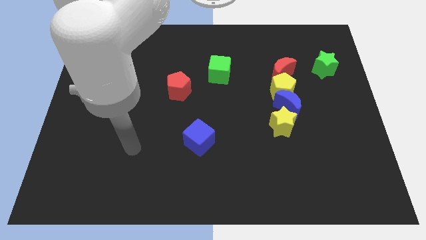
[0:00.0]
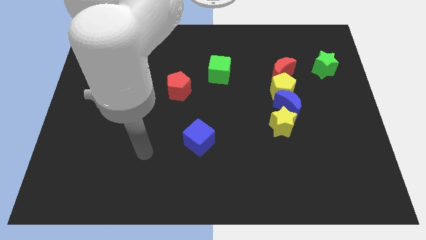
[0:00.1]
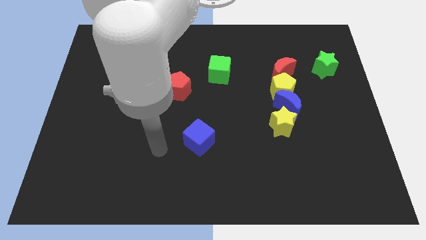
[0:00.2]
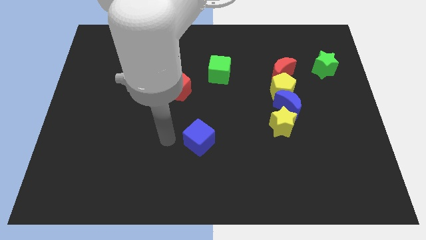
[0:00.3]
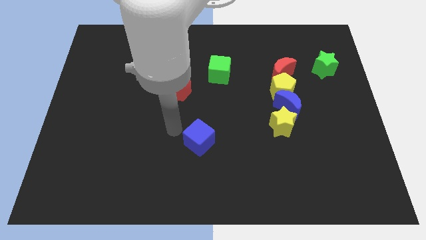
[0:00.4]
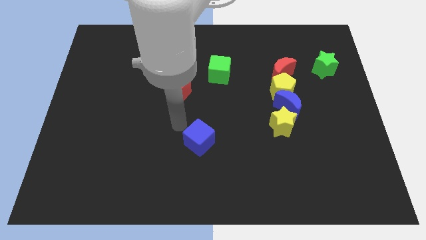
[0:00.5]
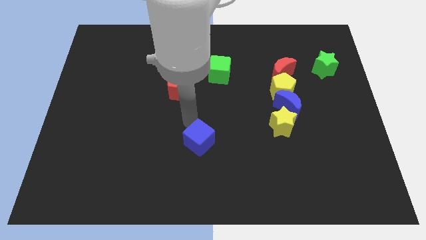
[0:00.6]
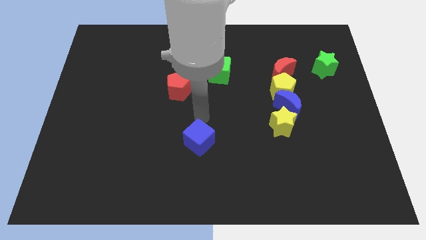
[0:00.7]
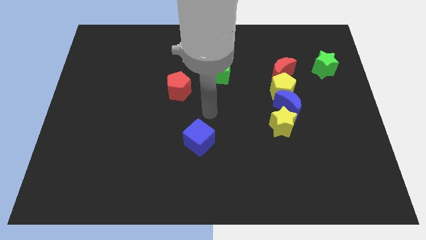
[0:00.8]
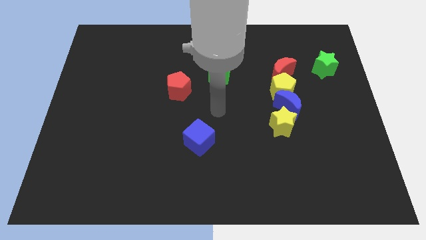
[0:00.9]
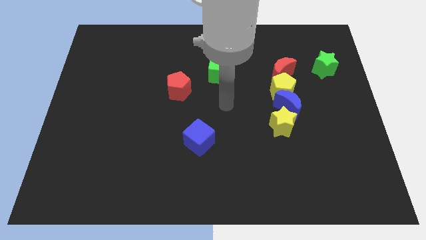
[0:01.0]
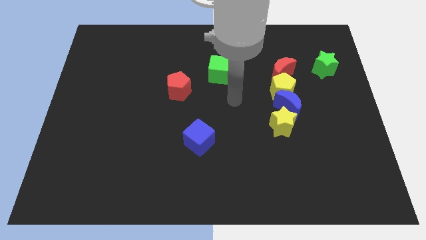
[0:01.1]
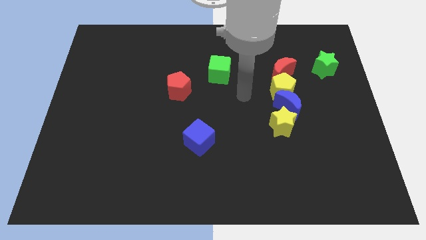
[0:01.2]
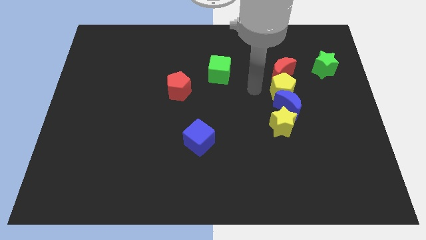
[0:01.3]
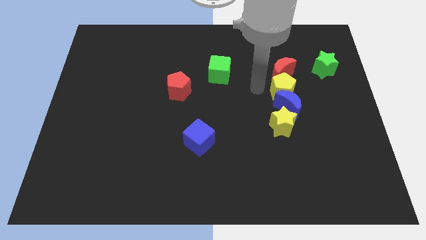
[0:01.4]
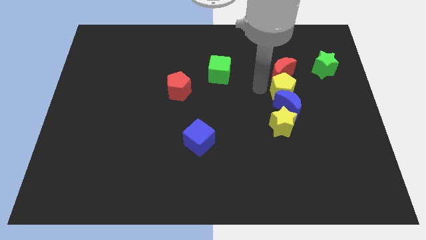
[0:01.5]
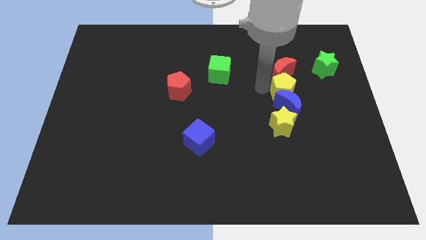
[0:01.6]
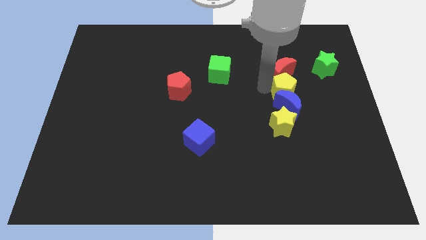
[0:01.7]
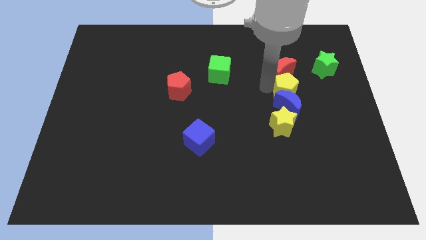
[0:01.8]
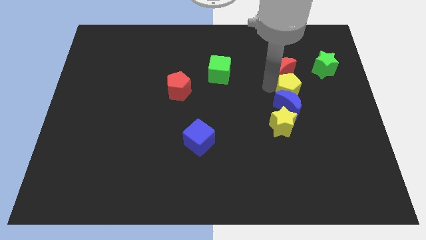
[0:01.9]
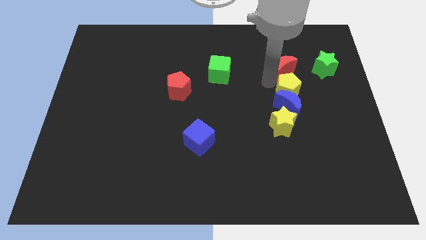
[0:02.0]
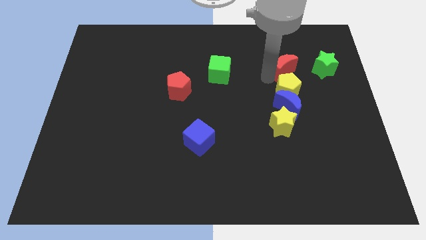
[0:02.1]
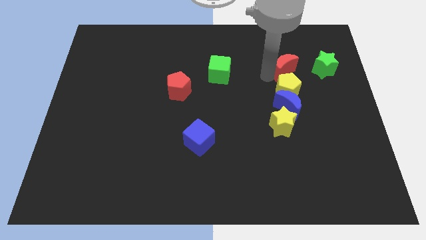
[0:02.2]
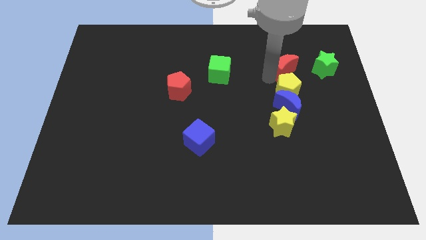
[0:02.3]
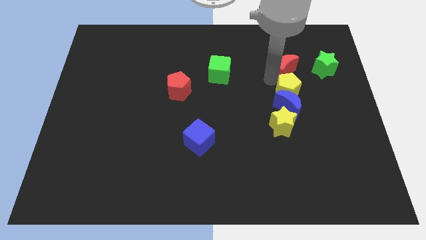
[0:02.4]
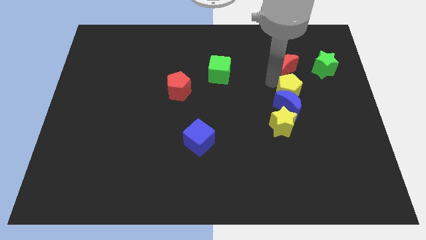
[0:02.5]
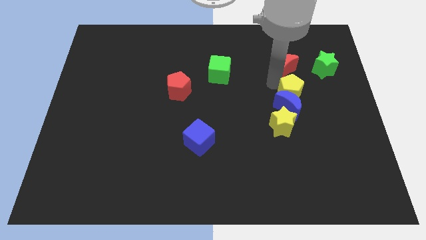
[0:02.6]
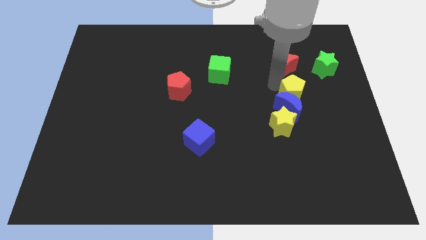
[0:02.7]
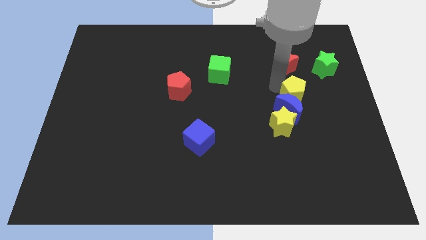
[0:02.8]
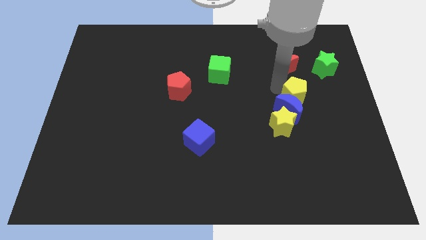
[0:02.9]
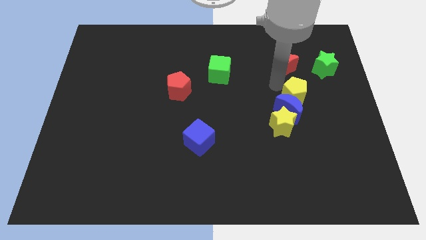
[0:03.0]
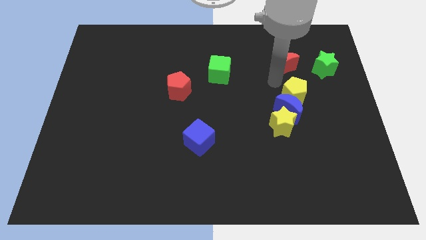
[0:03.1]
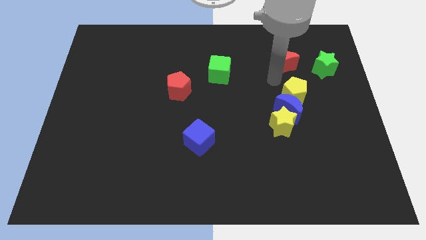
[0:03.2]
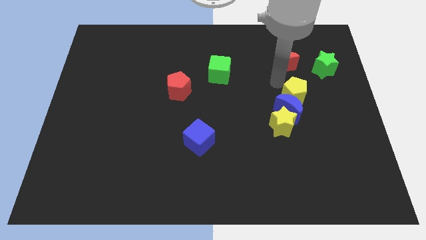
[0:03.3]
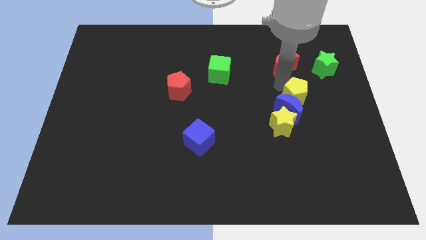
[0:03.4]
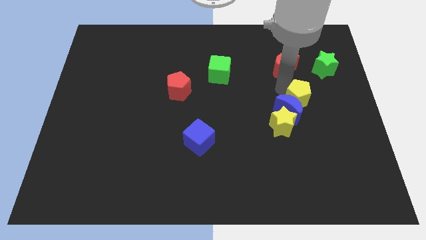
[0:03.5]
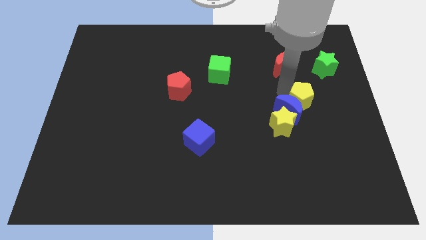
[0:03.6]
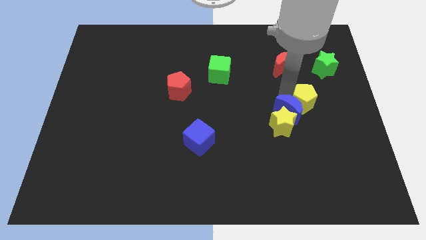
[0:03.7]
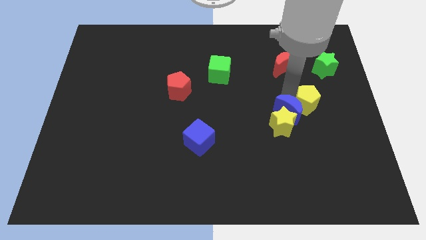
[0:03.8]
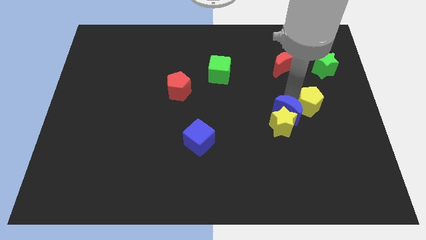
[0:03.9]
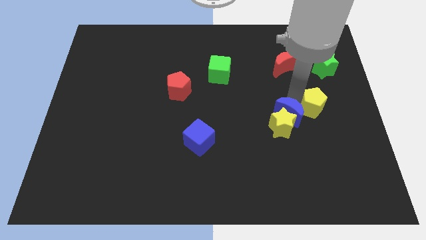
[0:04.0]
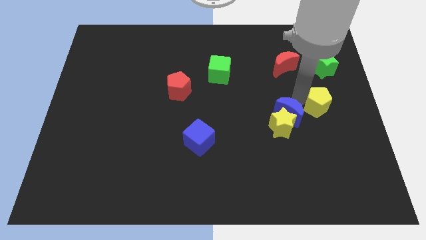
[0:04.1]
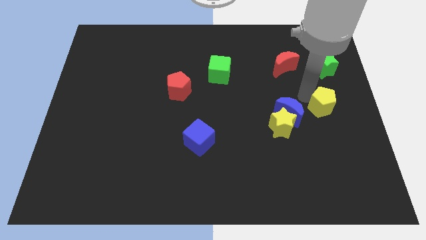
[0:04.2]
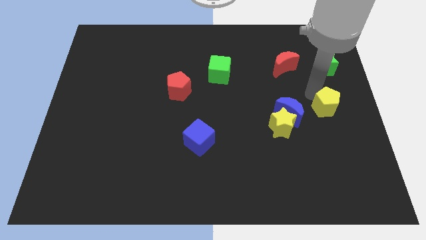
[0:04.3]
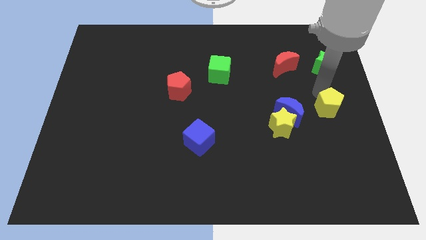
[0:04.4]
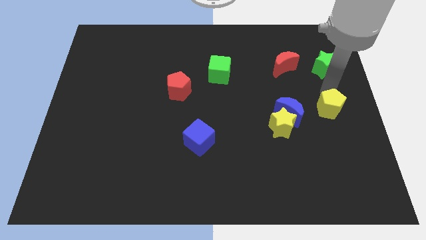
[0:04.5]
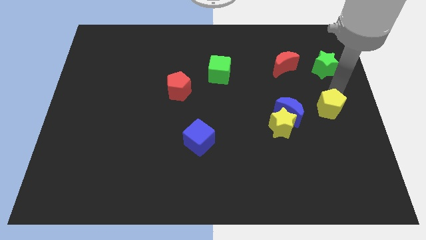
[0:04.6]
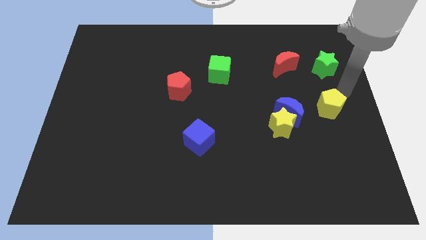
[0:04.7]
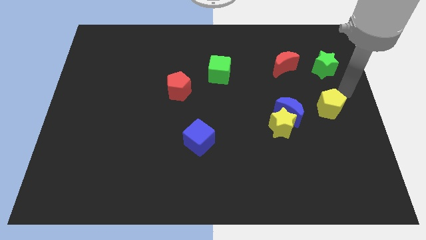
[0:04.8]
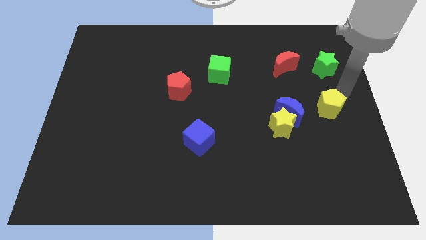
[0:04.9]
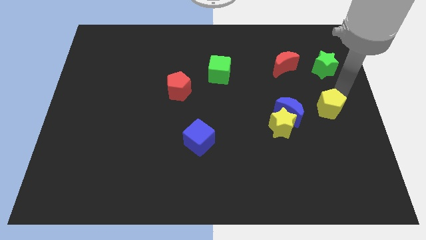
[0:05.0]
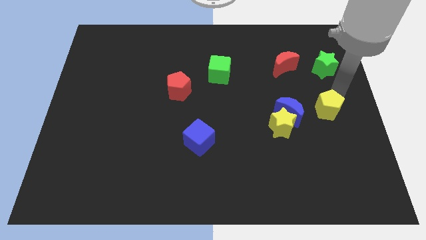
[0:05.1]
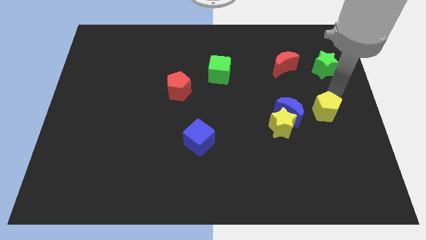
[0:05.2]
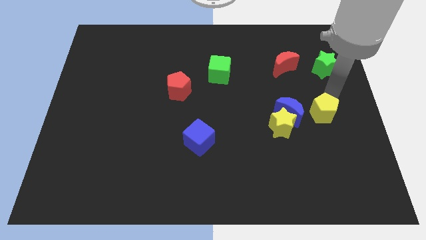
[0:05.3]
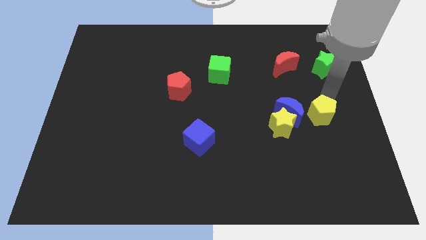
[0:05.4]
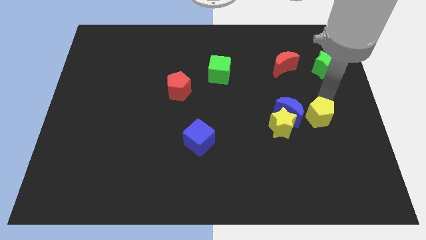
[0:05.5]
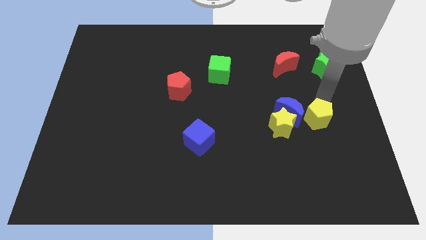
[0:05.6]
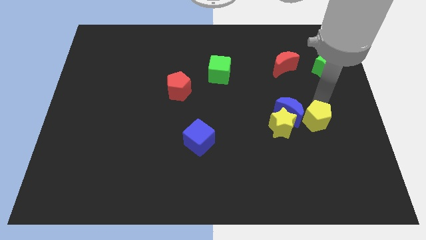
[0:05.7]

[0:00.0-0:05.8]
move the yellow pentagon a bit downwards

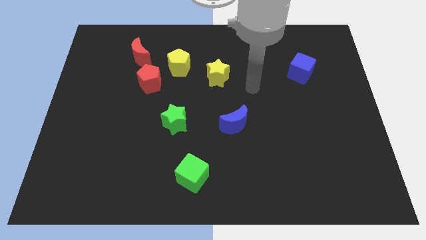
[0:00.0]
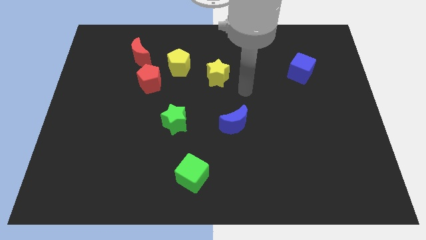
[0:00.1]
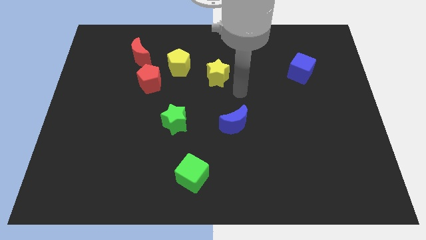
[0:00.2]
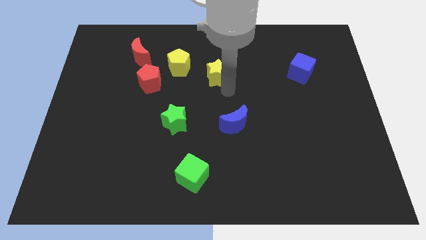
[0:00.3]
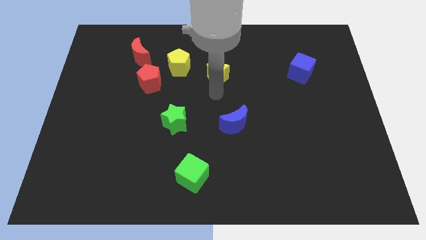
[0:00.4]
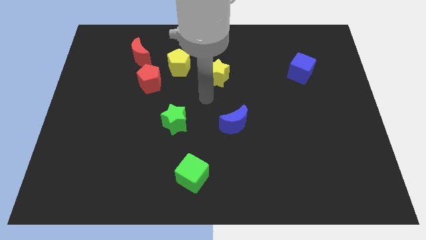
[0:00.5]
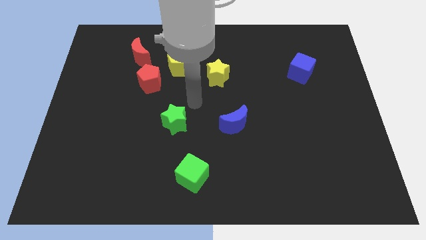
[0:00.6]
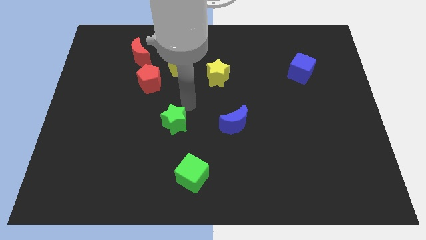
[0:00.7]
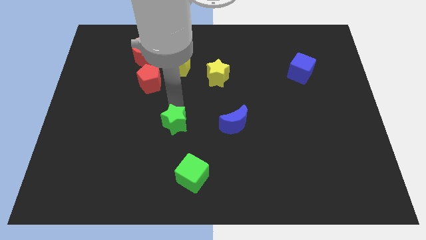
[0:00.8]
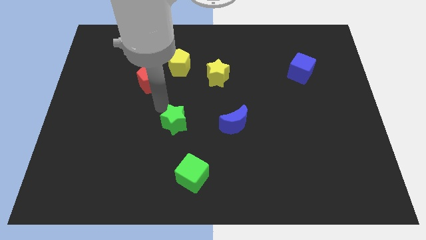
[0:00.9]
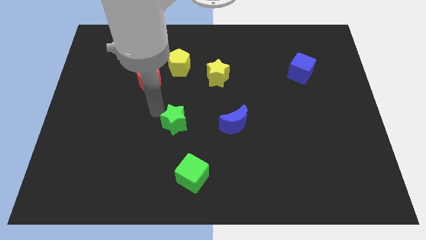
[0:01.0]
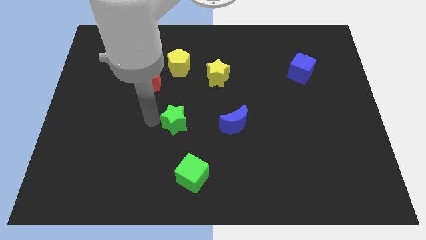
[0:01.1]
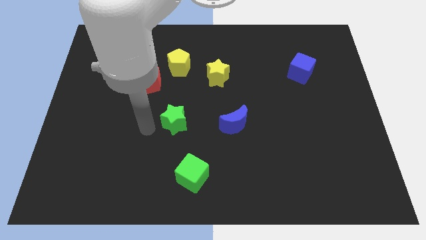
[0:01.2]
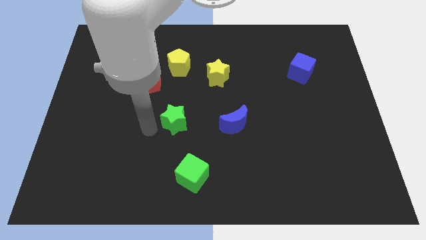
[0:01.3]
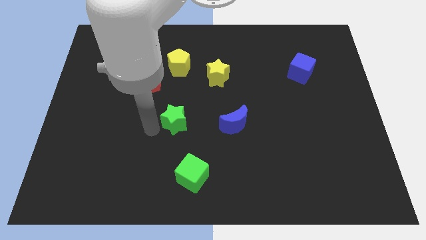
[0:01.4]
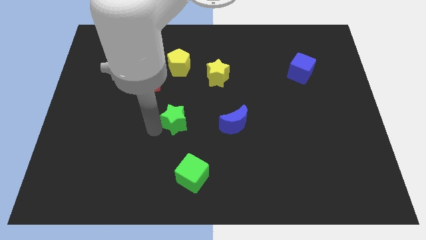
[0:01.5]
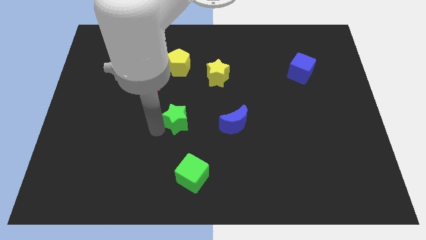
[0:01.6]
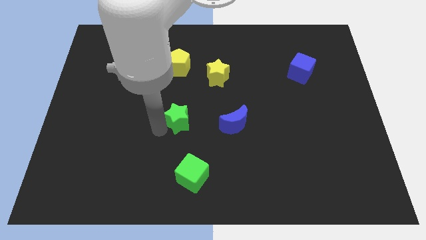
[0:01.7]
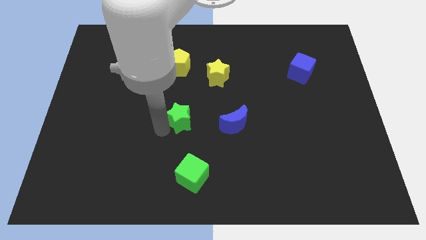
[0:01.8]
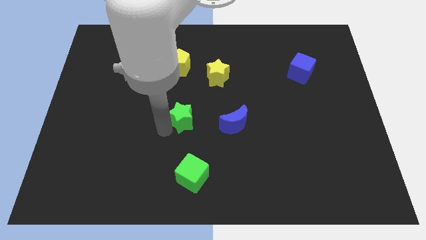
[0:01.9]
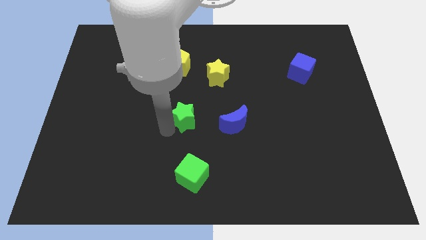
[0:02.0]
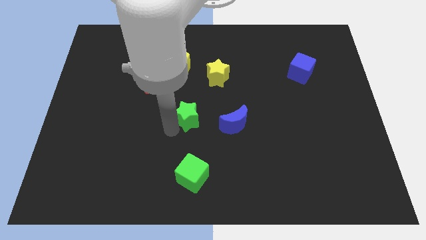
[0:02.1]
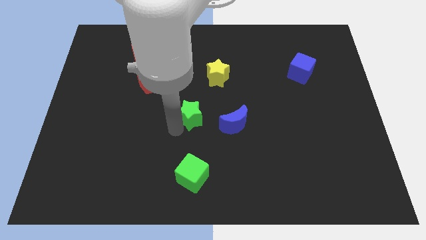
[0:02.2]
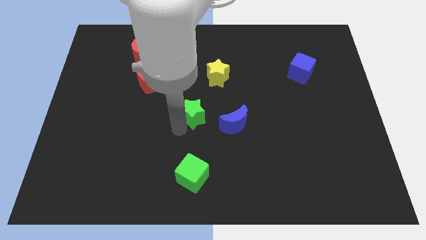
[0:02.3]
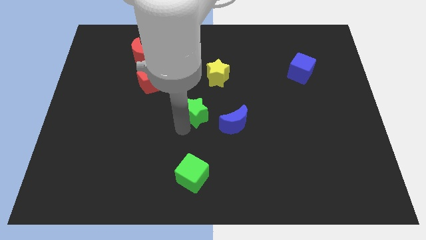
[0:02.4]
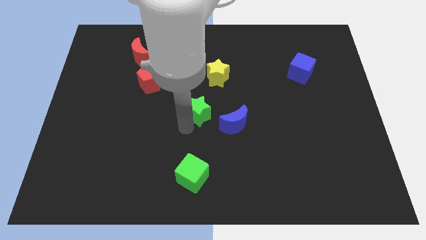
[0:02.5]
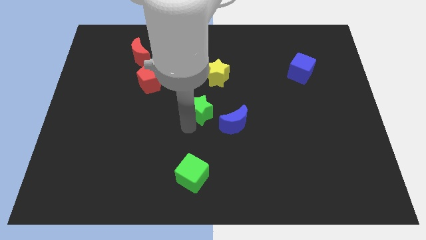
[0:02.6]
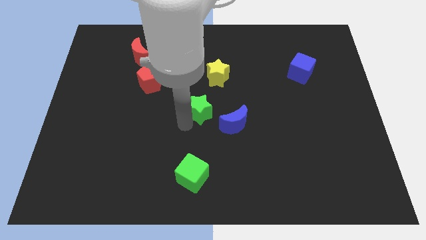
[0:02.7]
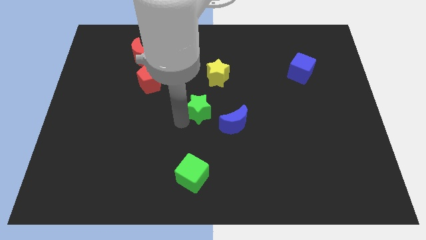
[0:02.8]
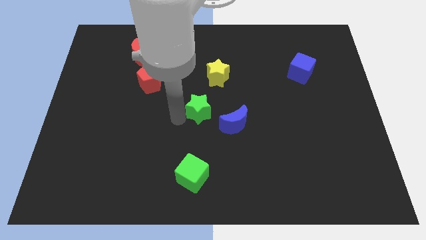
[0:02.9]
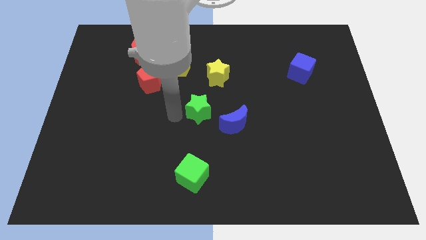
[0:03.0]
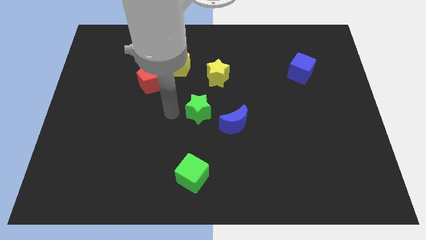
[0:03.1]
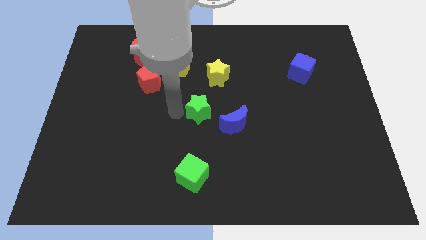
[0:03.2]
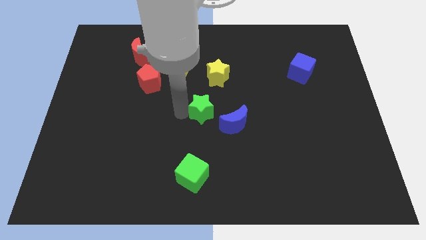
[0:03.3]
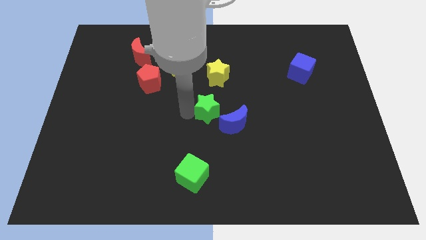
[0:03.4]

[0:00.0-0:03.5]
slightly move the green star right
